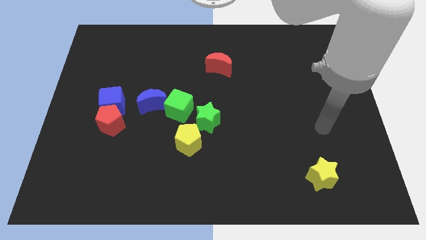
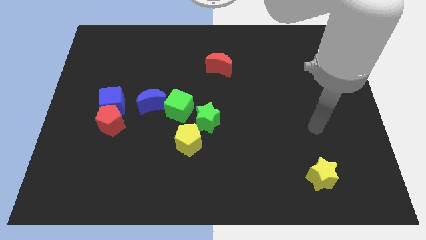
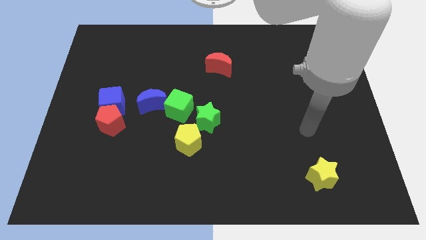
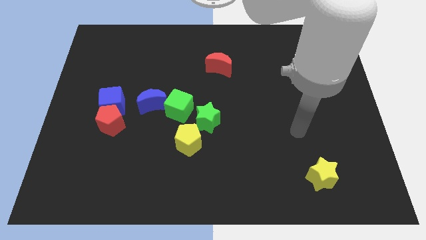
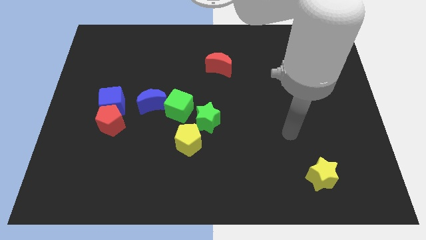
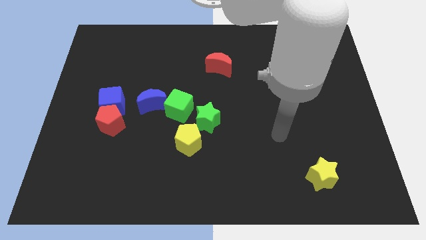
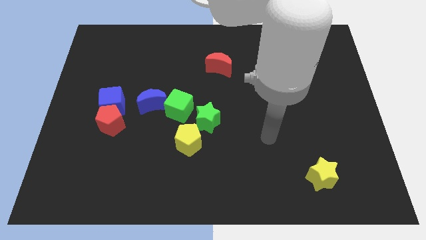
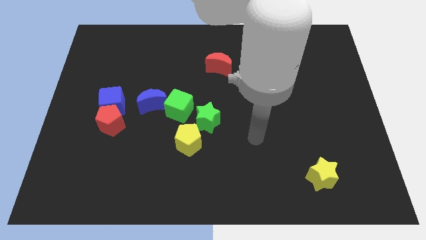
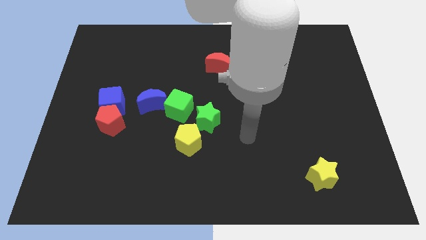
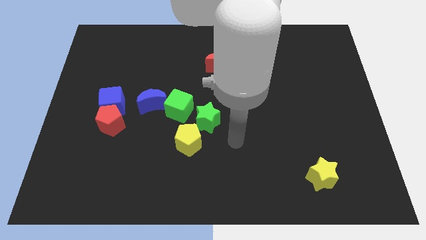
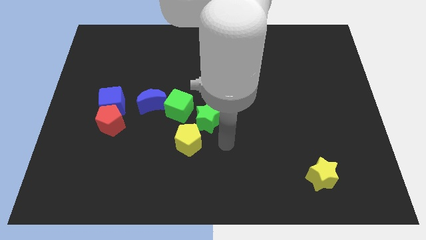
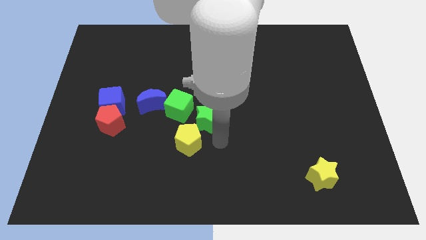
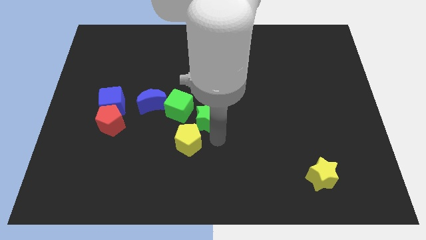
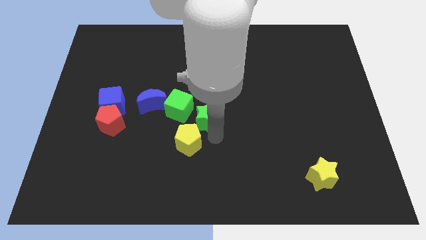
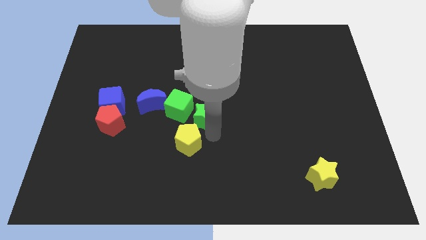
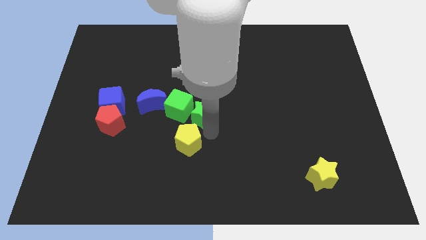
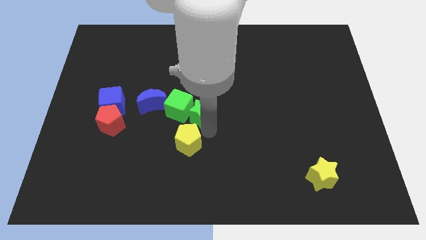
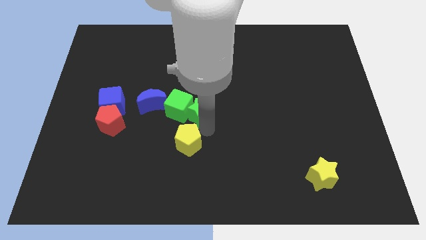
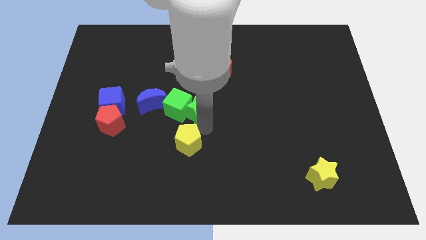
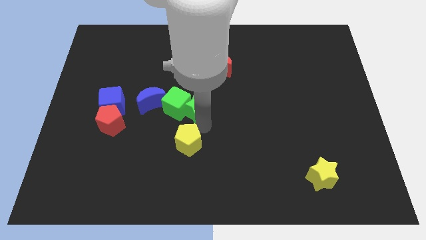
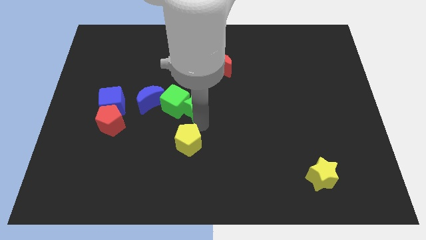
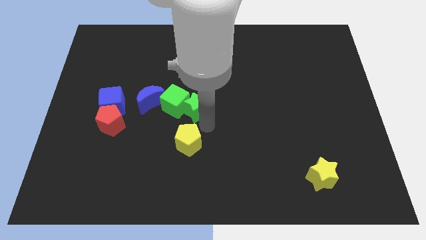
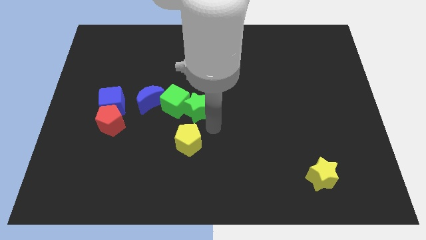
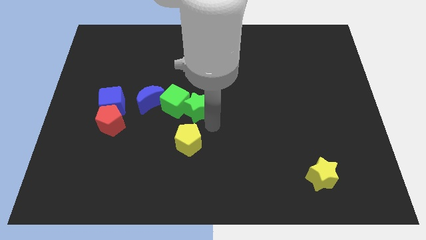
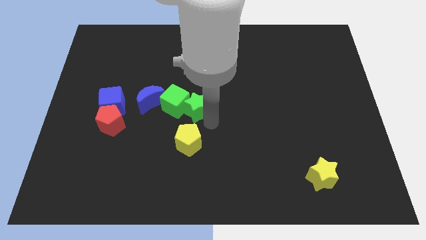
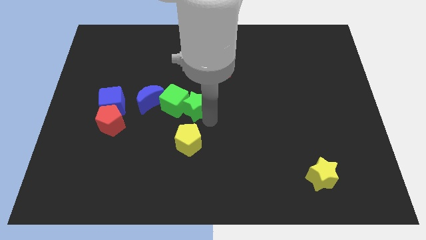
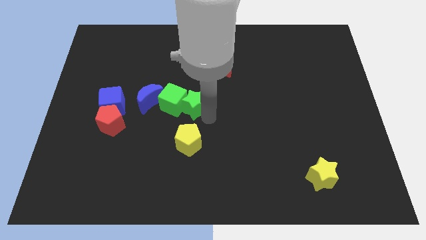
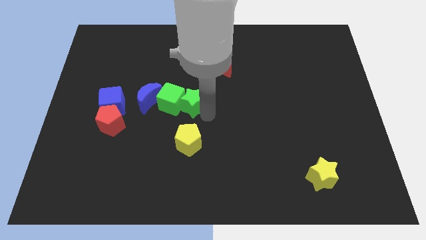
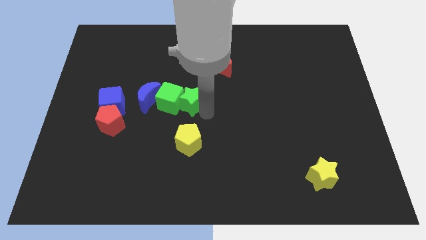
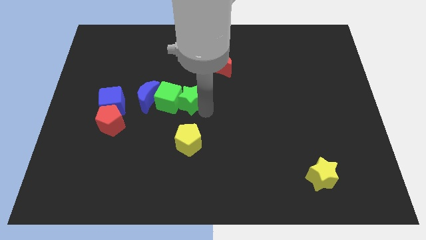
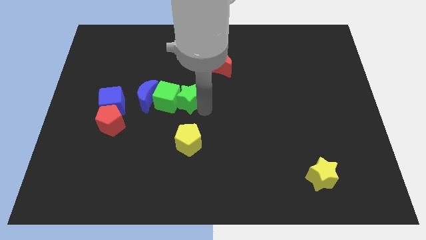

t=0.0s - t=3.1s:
slide the green star a little bit diagonally upwards and left

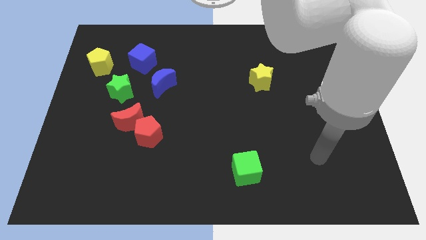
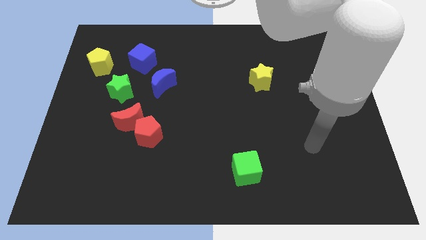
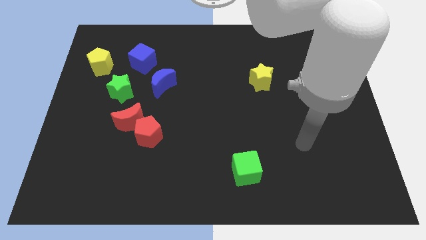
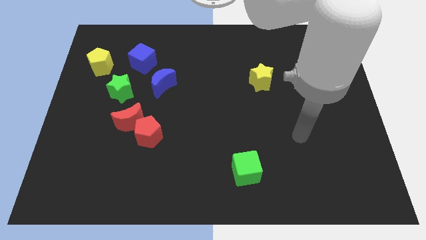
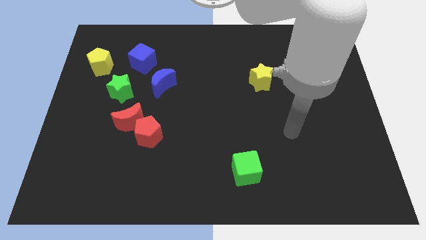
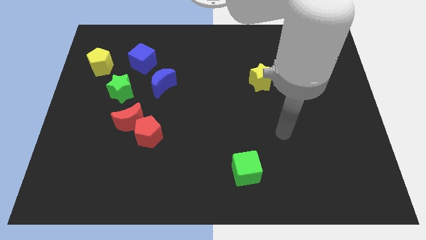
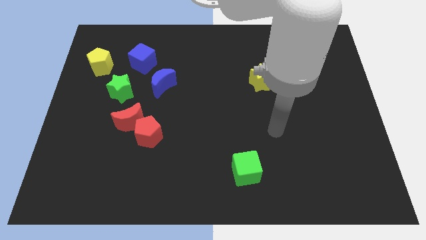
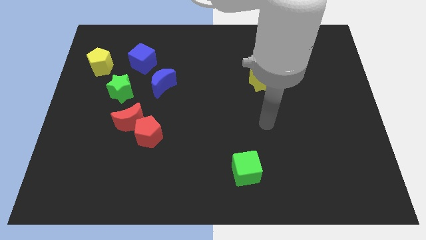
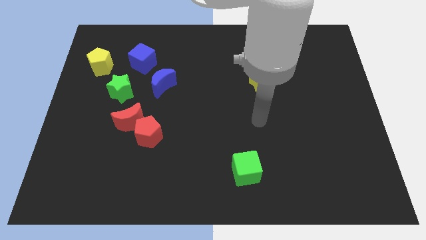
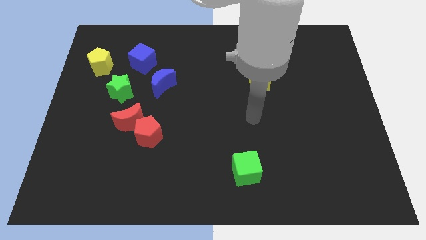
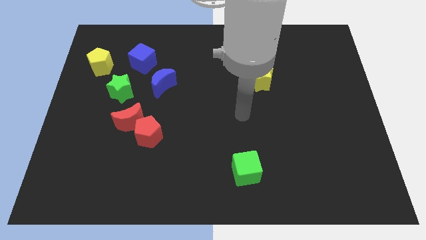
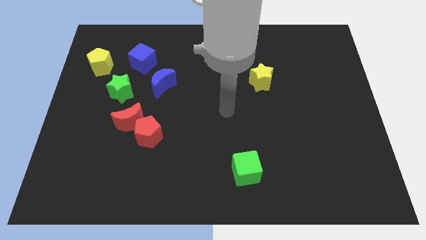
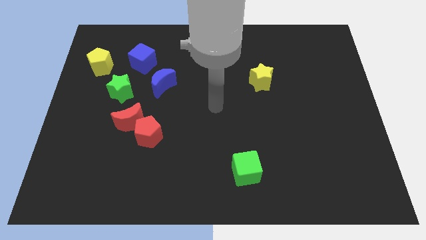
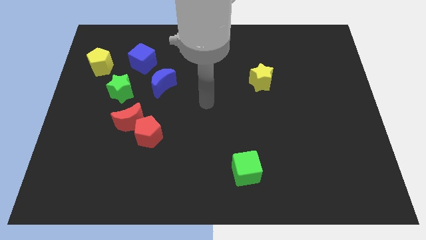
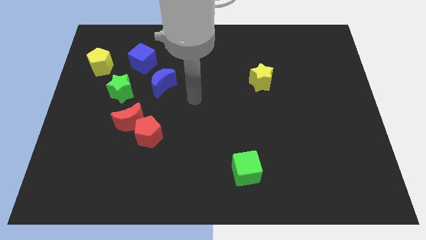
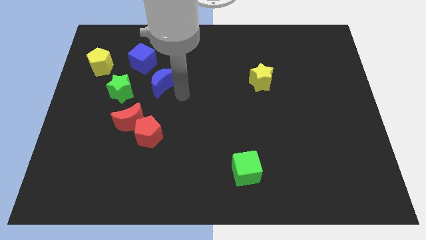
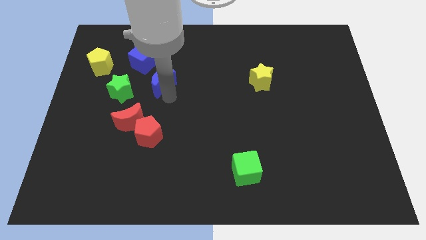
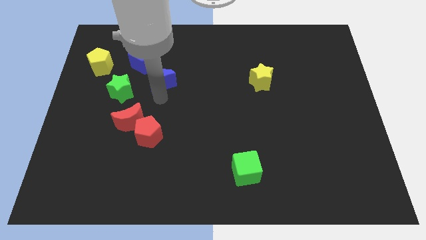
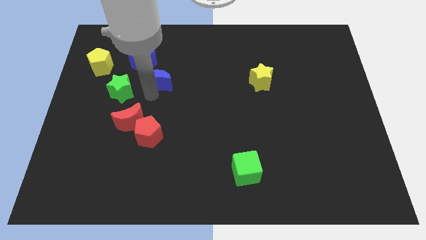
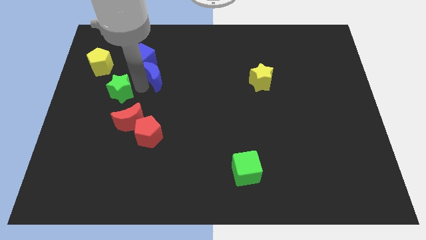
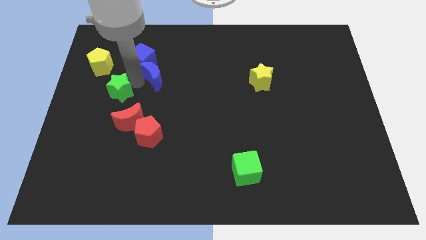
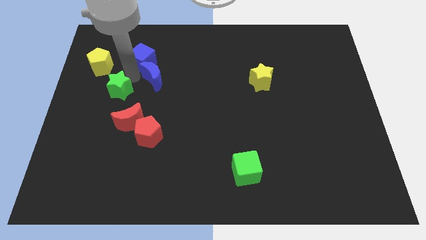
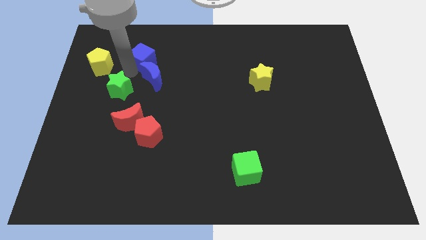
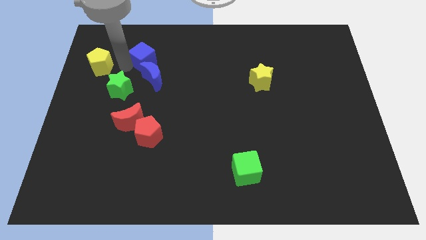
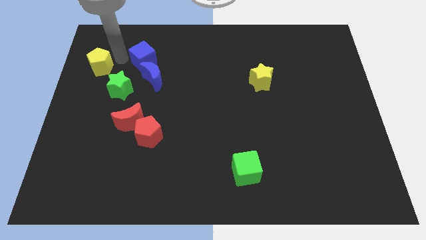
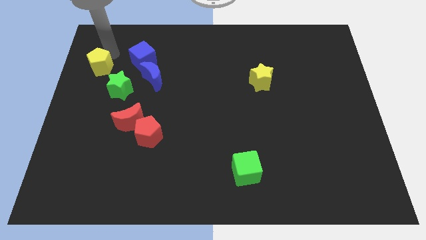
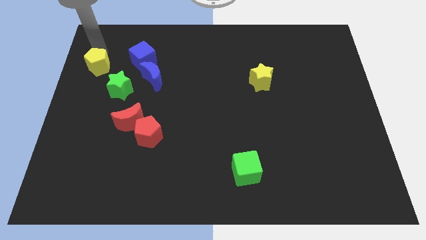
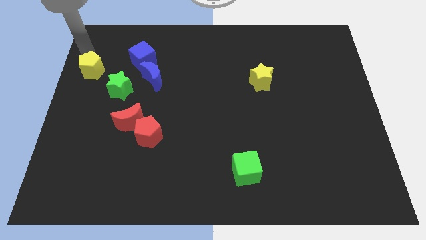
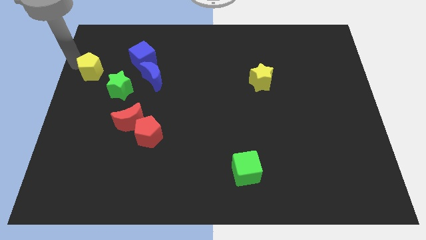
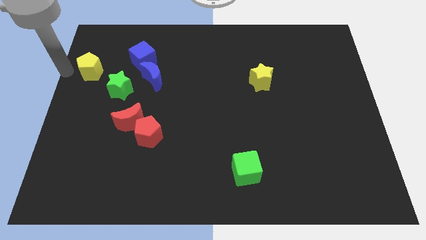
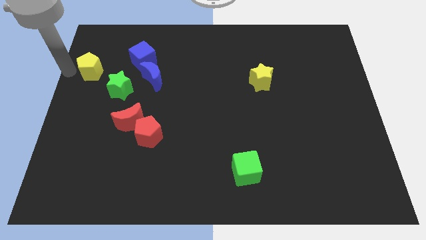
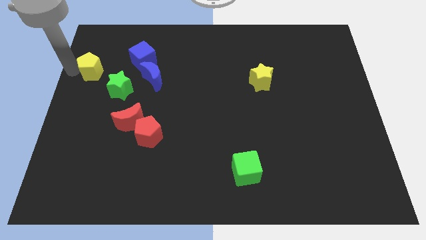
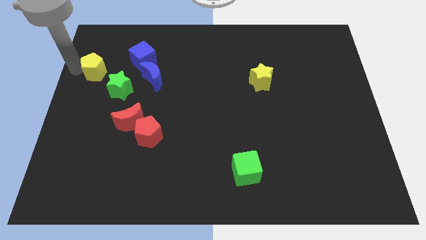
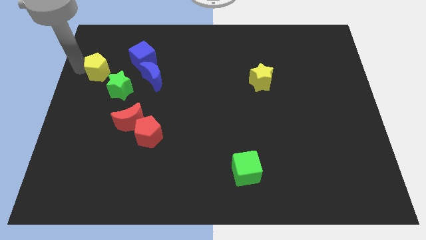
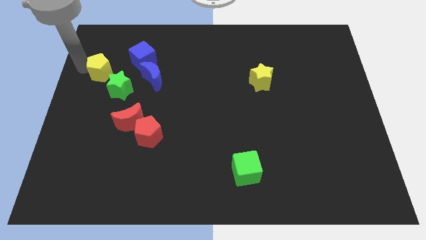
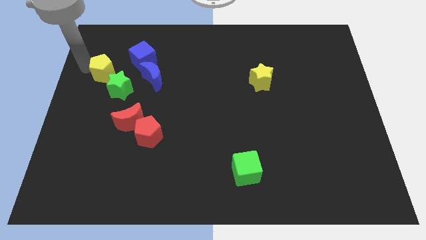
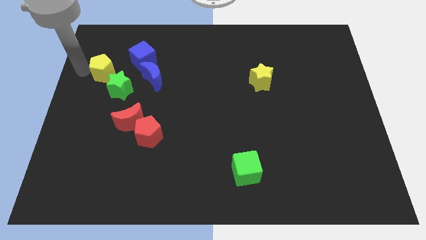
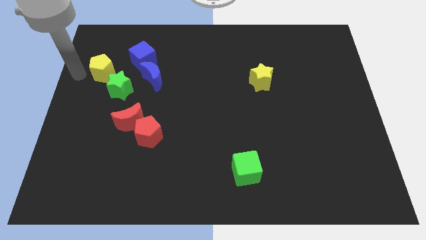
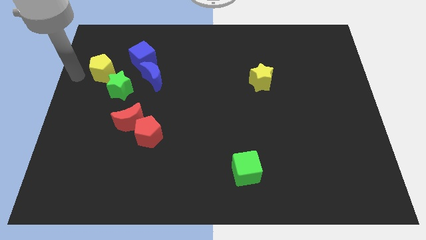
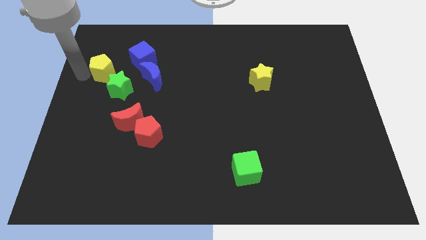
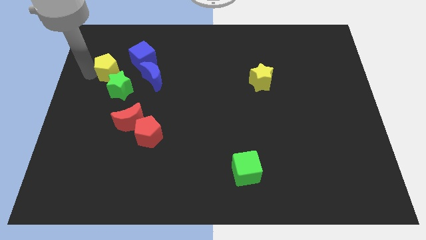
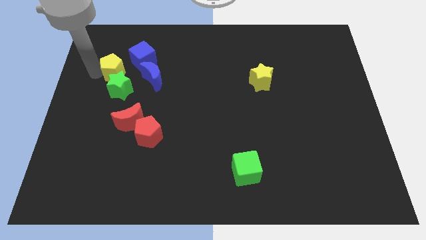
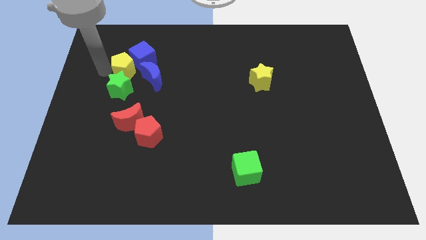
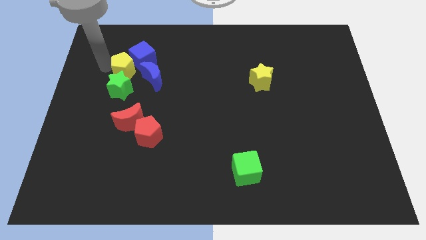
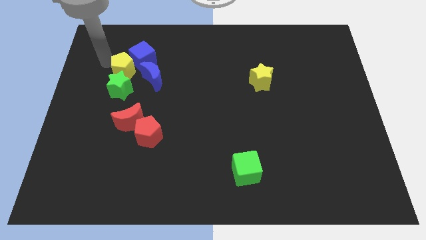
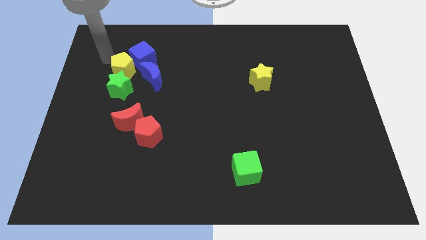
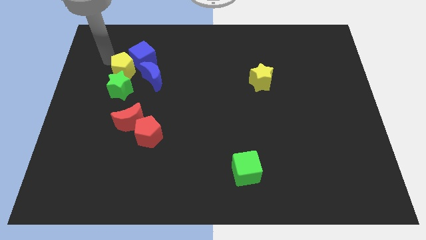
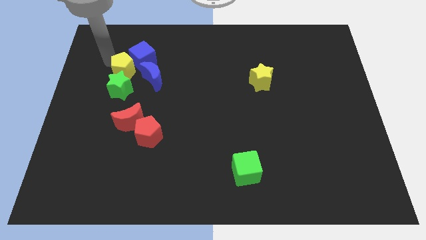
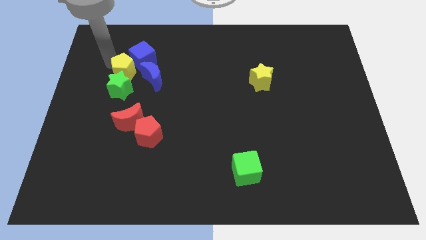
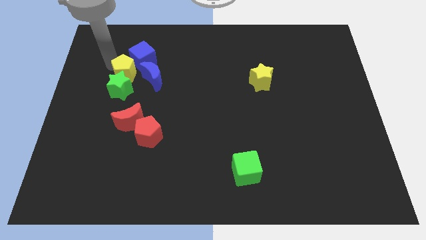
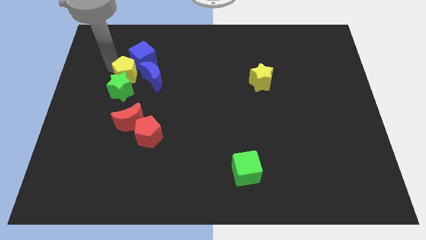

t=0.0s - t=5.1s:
move the yellow pentagon somewhat down and right diagonally
